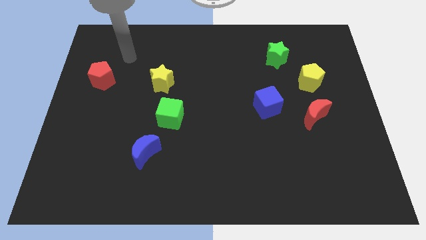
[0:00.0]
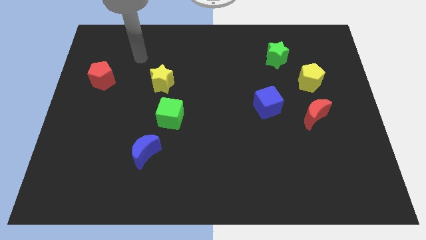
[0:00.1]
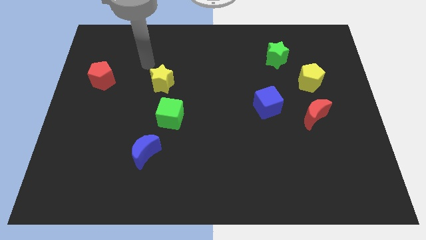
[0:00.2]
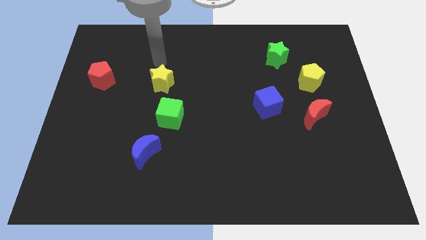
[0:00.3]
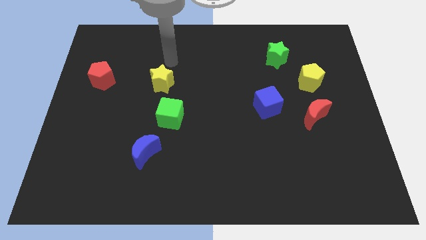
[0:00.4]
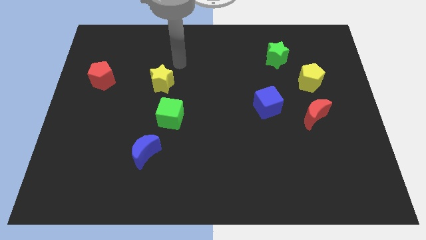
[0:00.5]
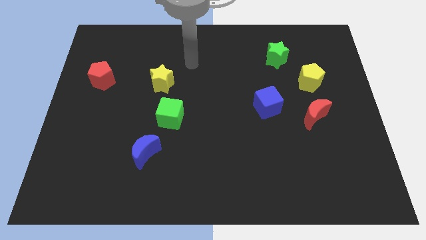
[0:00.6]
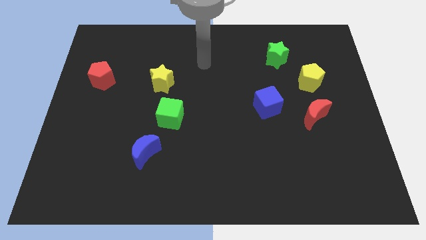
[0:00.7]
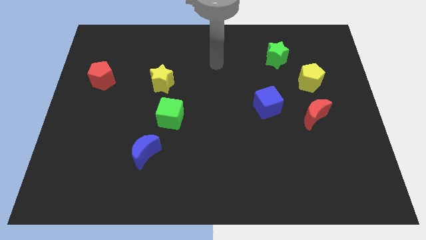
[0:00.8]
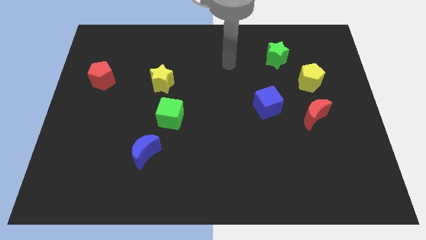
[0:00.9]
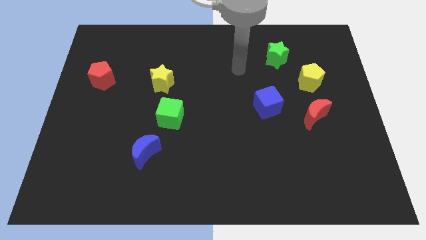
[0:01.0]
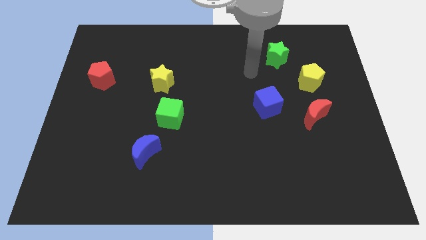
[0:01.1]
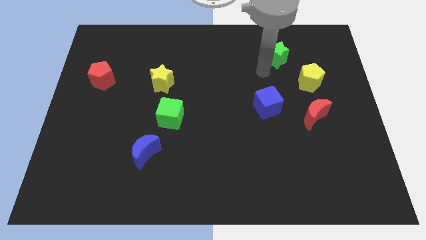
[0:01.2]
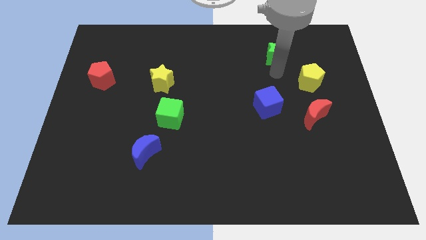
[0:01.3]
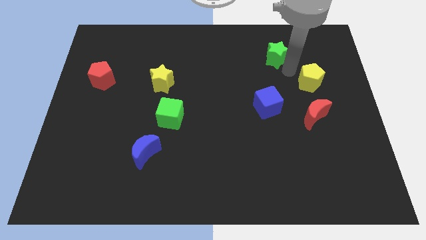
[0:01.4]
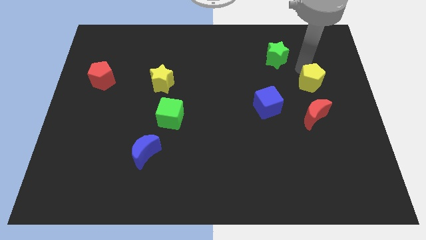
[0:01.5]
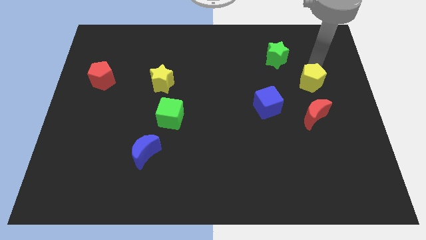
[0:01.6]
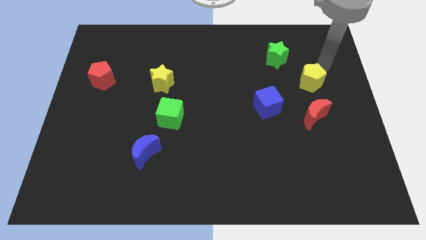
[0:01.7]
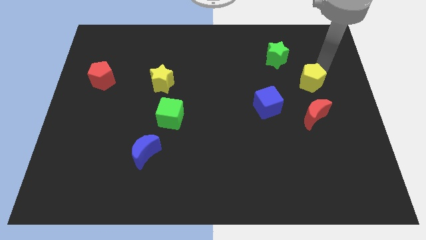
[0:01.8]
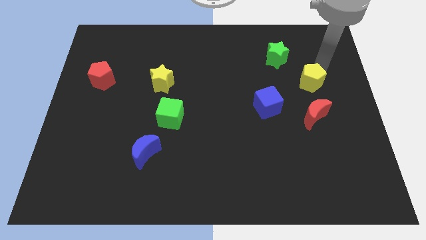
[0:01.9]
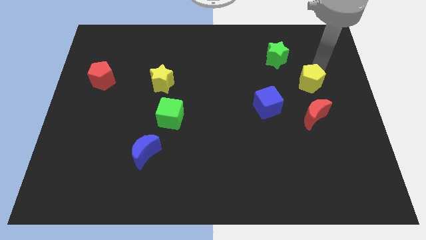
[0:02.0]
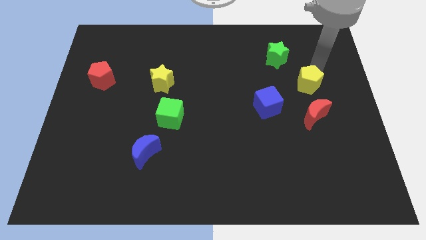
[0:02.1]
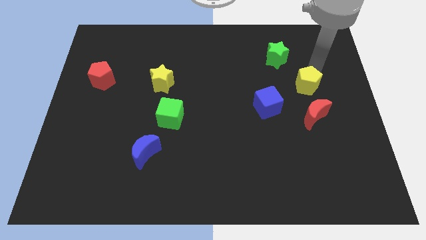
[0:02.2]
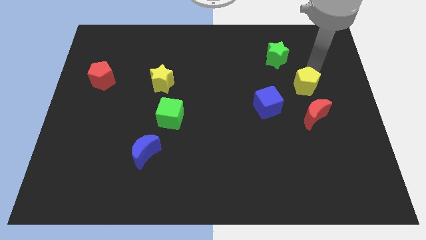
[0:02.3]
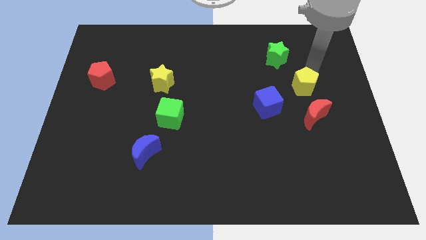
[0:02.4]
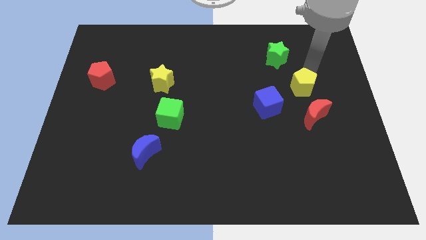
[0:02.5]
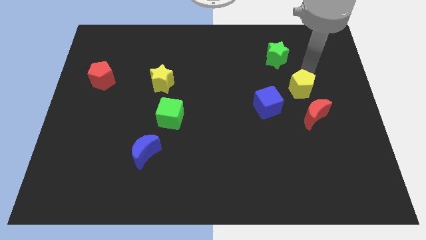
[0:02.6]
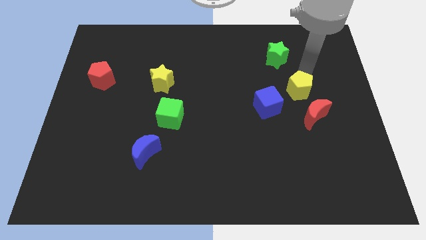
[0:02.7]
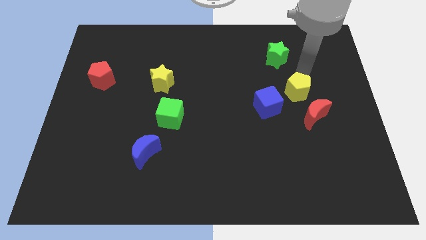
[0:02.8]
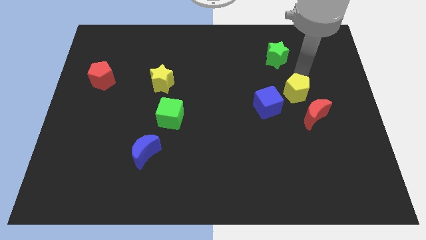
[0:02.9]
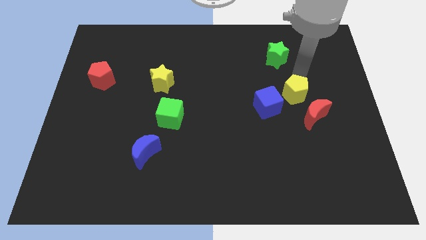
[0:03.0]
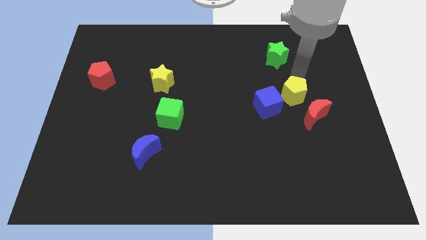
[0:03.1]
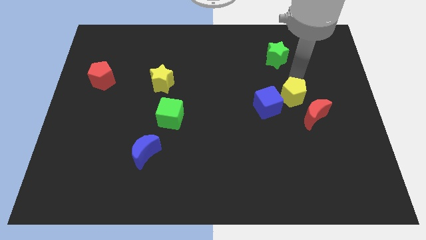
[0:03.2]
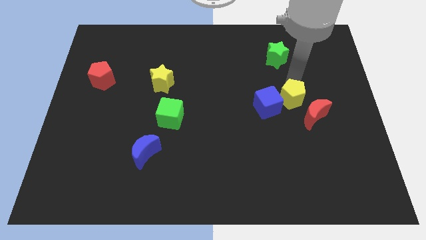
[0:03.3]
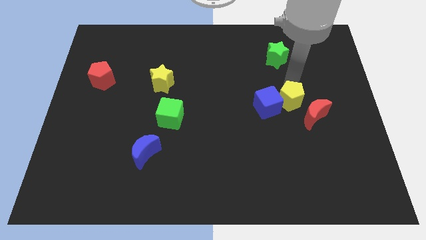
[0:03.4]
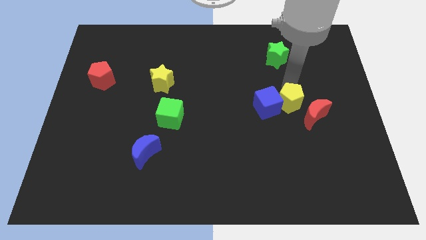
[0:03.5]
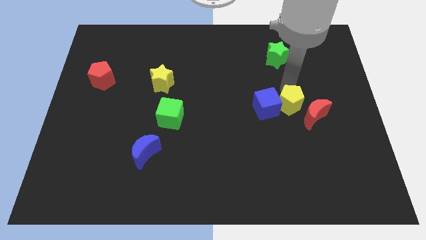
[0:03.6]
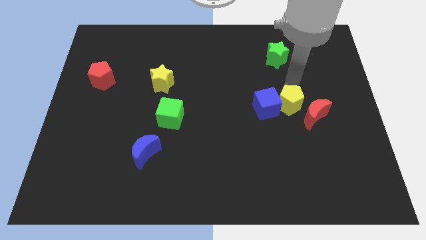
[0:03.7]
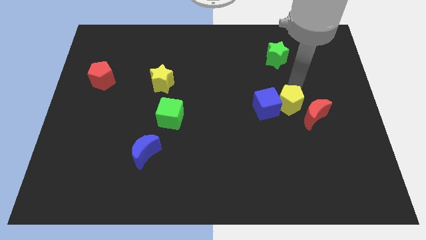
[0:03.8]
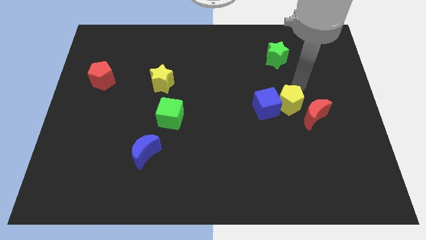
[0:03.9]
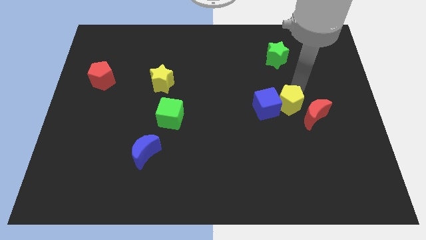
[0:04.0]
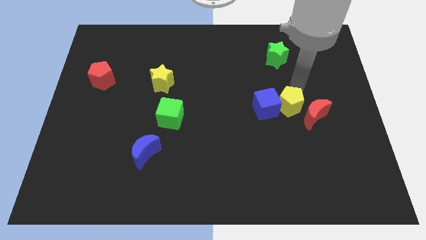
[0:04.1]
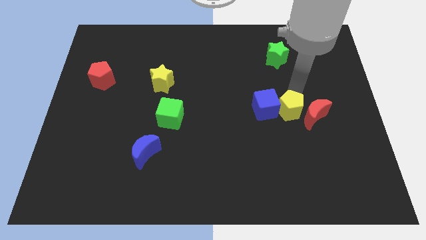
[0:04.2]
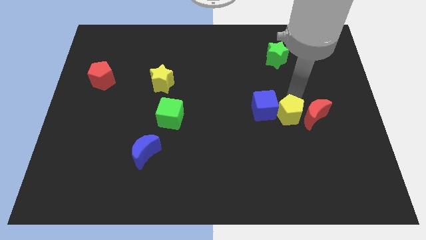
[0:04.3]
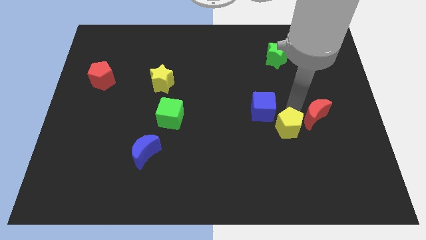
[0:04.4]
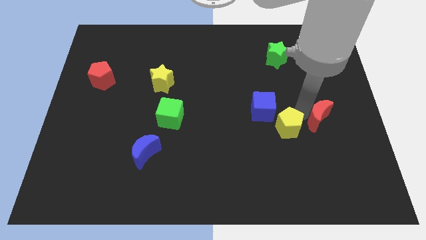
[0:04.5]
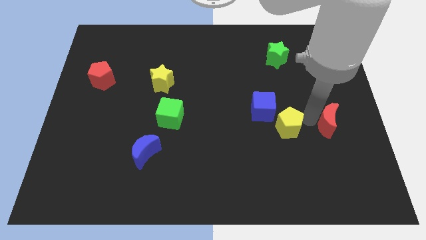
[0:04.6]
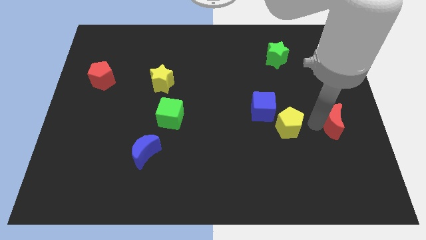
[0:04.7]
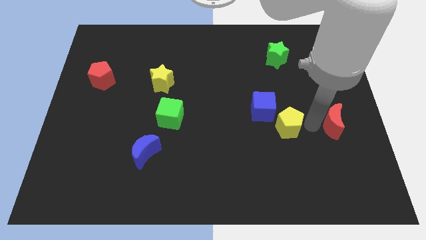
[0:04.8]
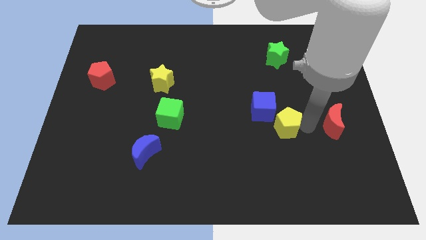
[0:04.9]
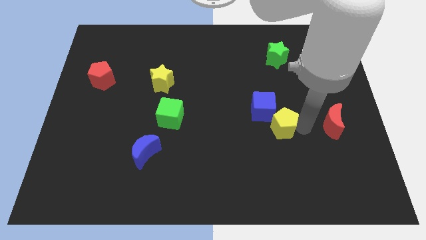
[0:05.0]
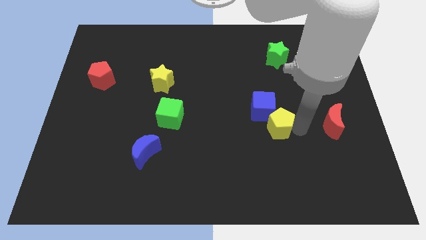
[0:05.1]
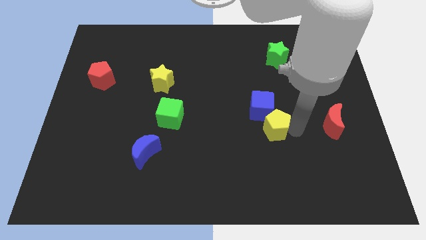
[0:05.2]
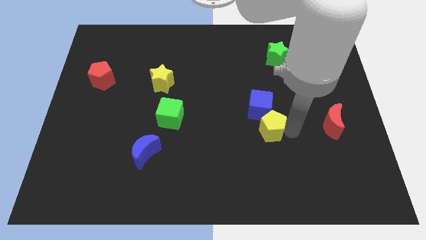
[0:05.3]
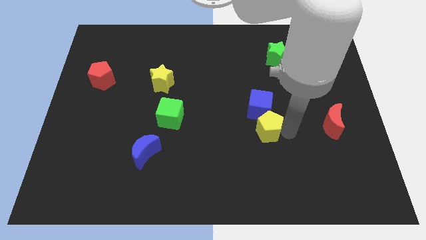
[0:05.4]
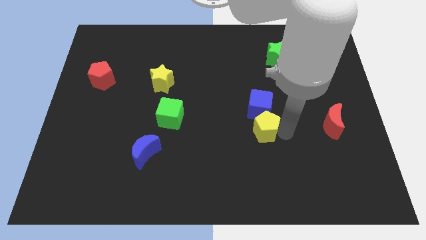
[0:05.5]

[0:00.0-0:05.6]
slide the yellow pentagon diagonally down and to the left of the blue cube

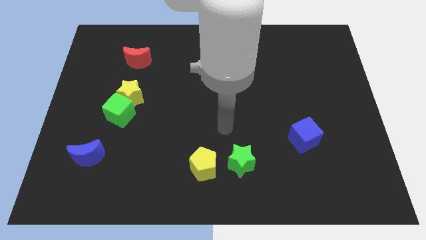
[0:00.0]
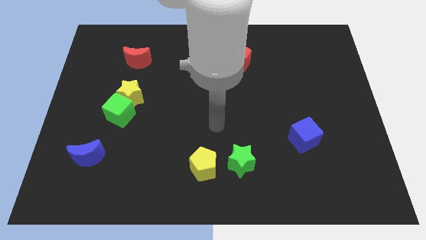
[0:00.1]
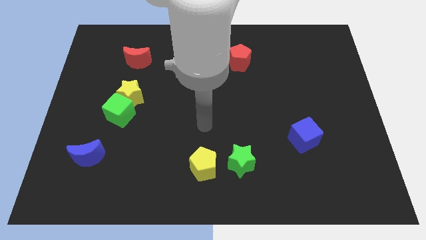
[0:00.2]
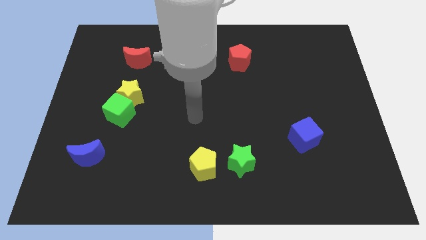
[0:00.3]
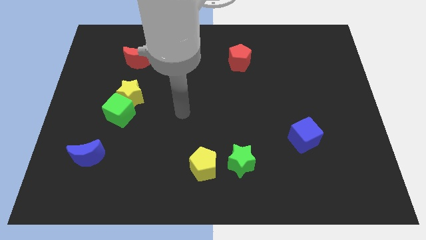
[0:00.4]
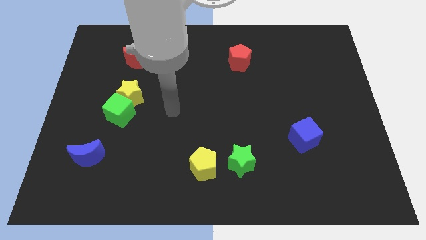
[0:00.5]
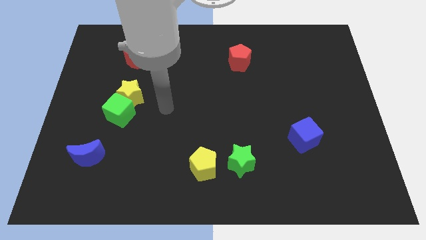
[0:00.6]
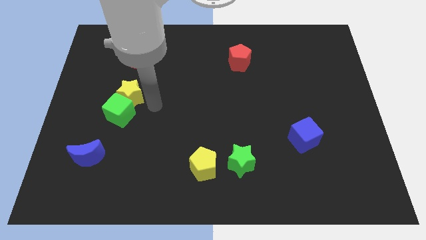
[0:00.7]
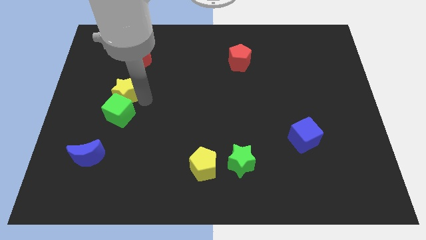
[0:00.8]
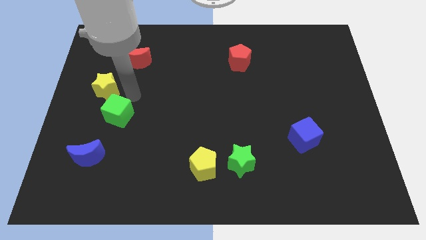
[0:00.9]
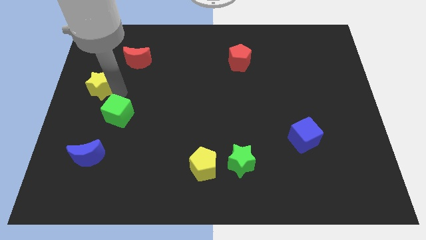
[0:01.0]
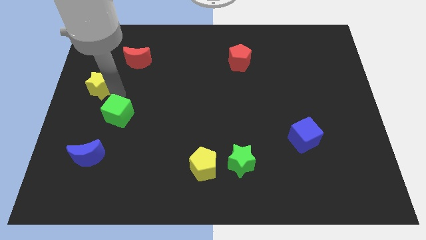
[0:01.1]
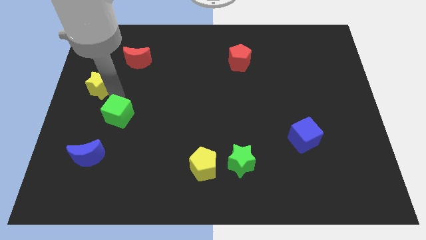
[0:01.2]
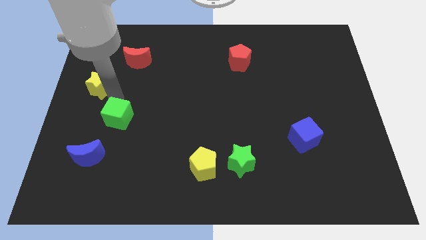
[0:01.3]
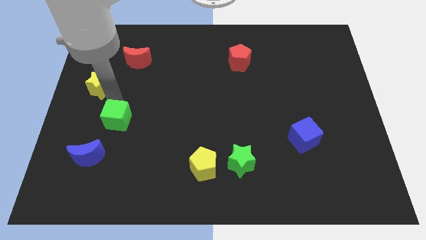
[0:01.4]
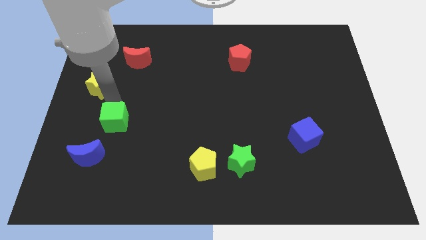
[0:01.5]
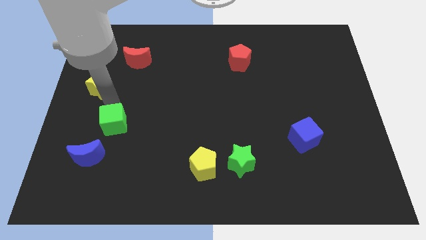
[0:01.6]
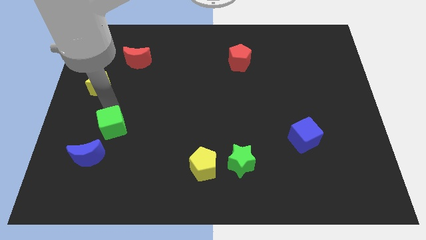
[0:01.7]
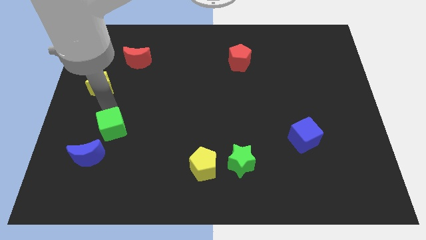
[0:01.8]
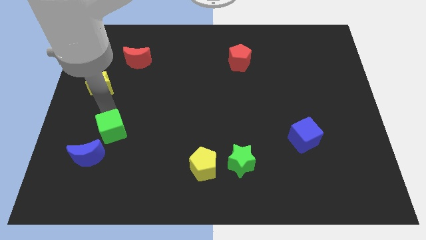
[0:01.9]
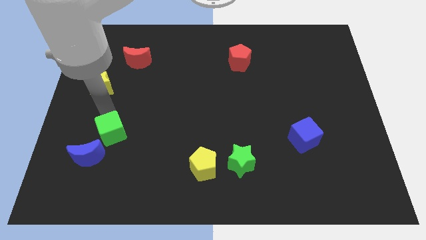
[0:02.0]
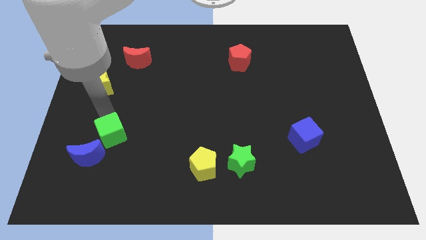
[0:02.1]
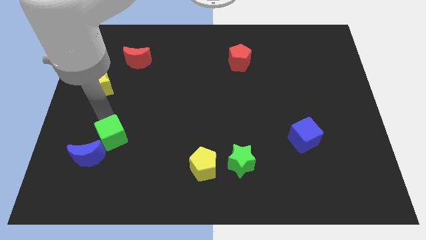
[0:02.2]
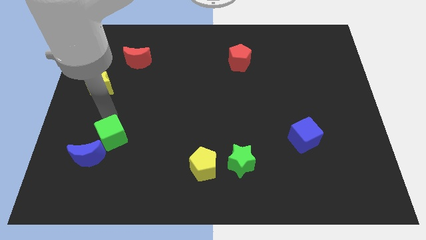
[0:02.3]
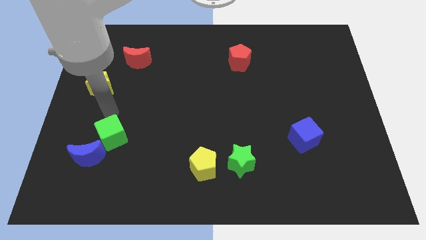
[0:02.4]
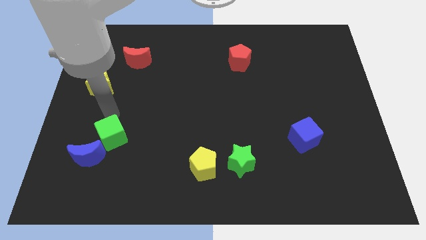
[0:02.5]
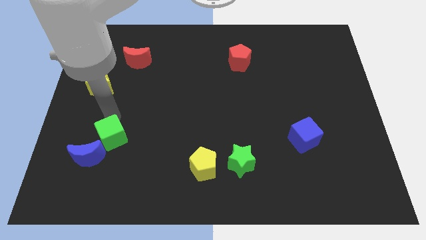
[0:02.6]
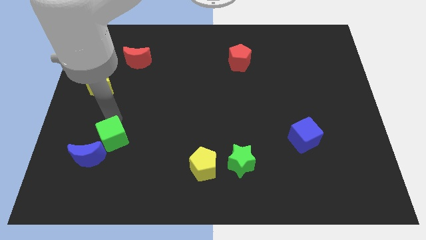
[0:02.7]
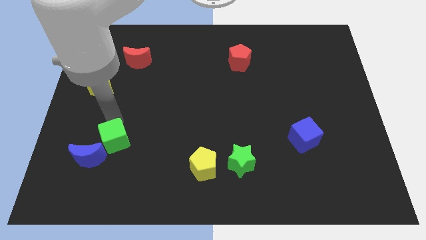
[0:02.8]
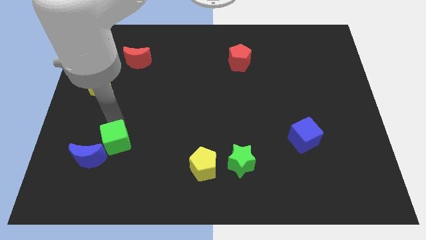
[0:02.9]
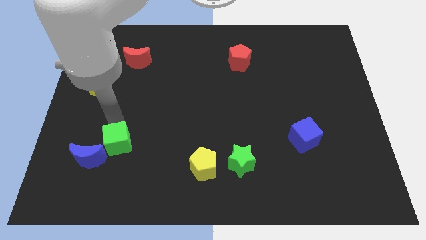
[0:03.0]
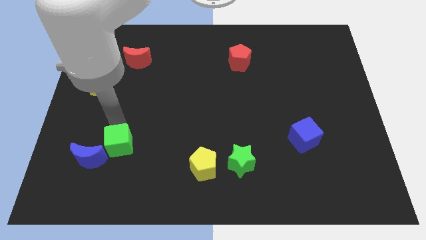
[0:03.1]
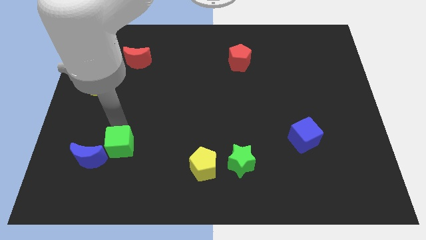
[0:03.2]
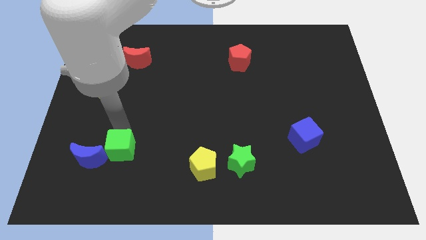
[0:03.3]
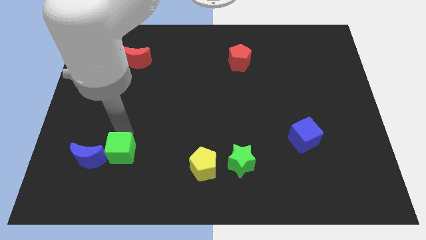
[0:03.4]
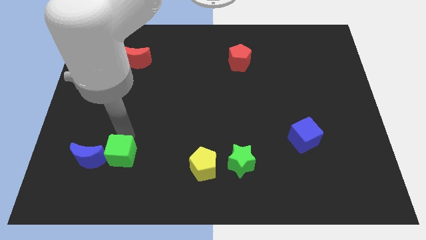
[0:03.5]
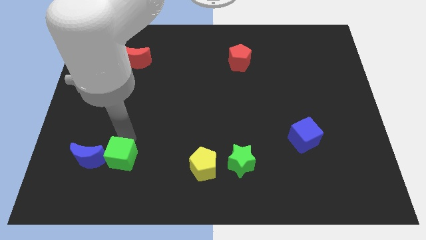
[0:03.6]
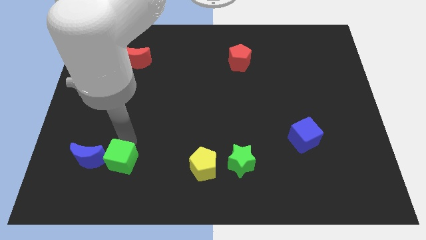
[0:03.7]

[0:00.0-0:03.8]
put the green cube to the bottom right side of the blue moon
